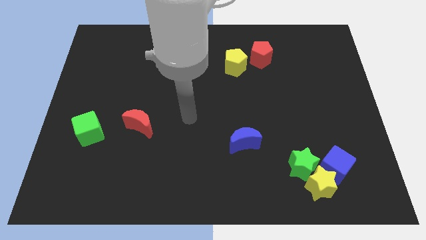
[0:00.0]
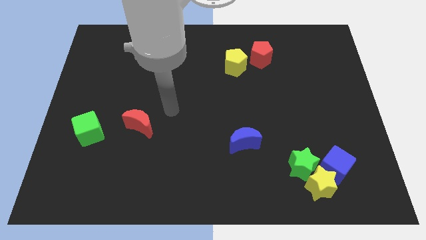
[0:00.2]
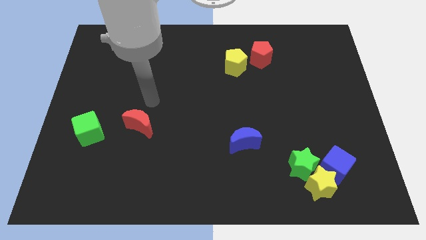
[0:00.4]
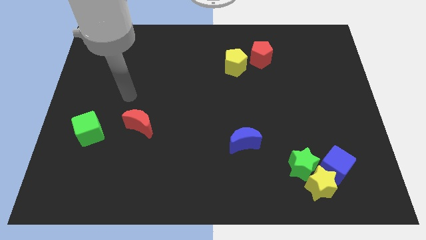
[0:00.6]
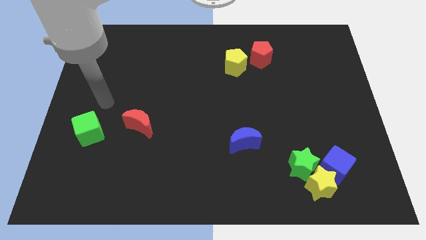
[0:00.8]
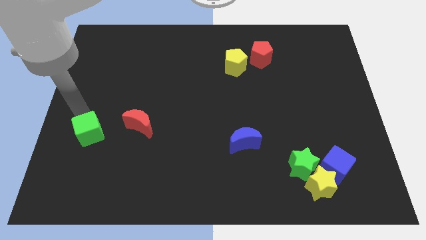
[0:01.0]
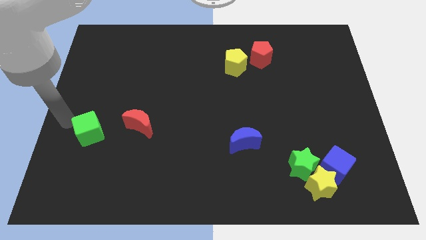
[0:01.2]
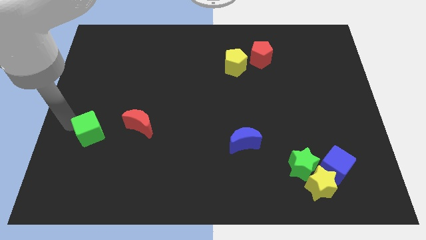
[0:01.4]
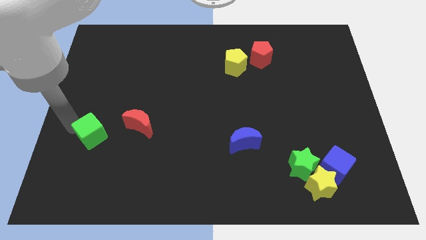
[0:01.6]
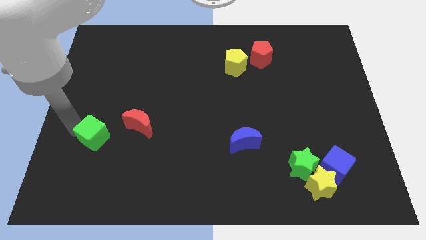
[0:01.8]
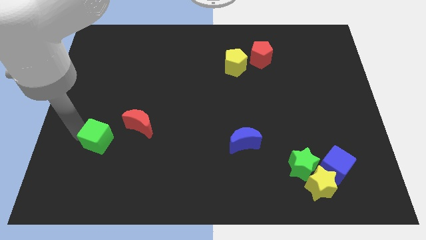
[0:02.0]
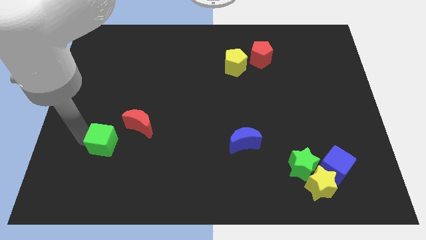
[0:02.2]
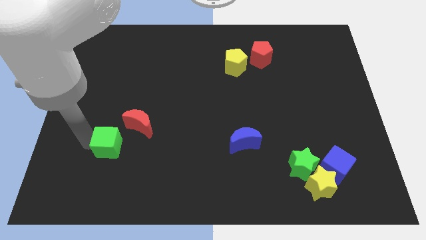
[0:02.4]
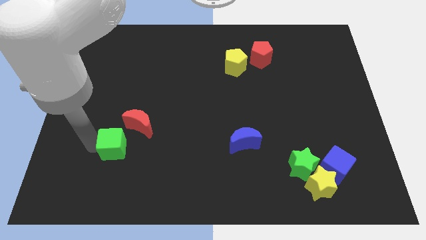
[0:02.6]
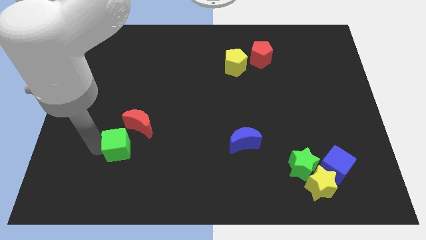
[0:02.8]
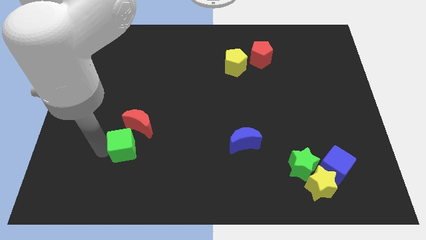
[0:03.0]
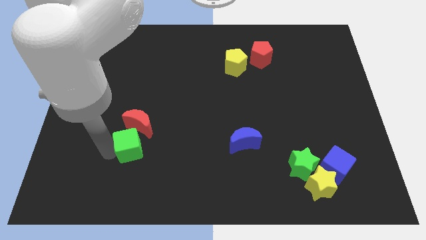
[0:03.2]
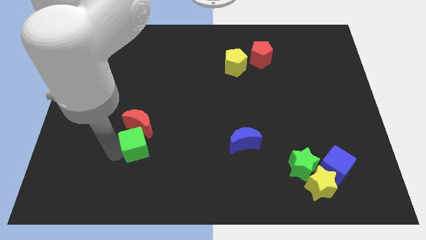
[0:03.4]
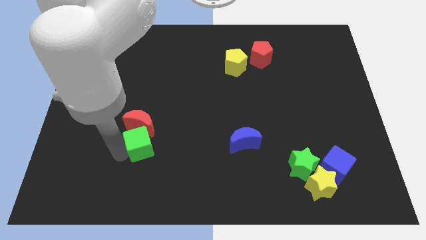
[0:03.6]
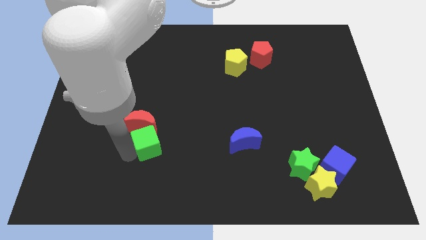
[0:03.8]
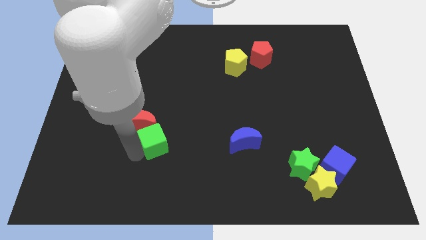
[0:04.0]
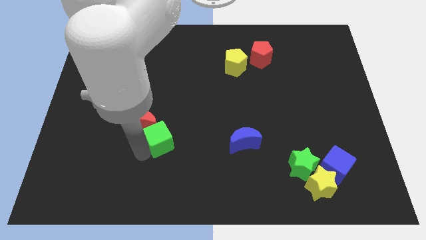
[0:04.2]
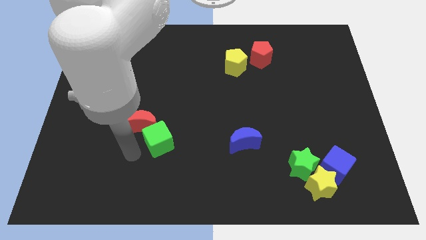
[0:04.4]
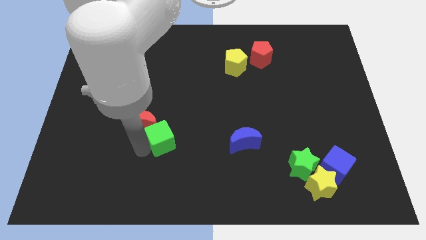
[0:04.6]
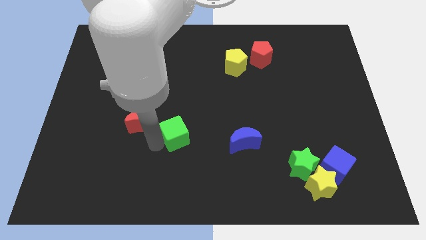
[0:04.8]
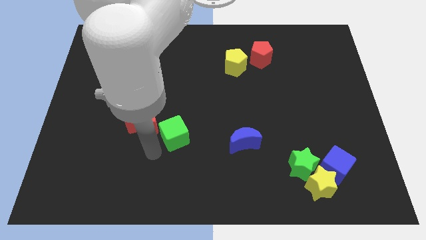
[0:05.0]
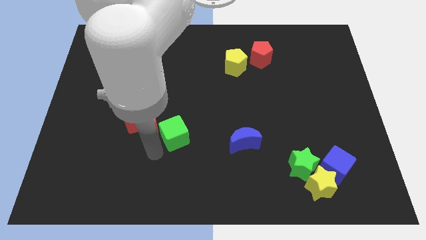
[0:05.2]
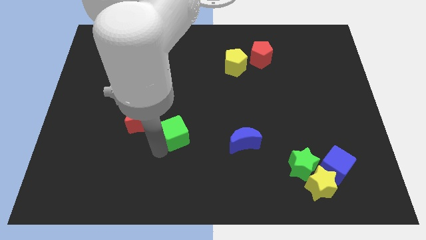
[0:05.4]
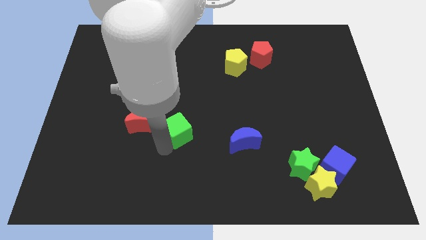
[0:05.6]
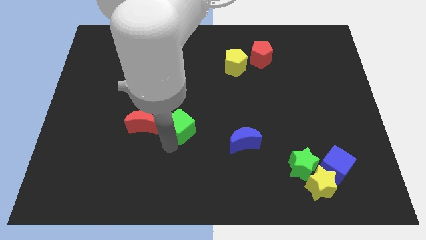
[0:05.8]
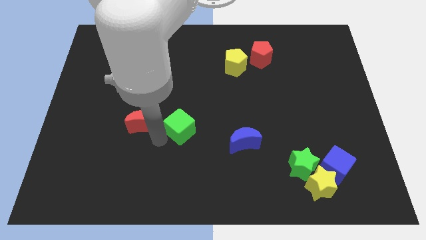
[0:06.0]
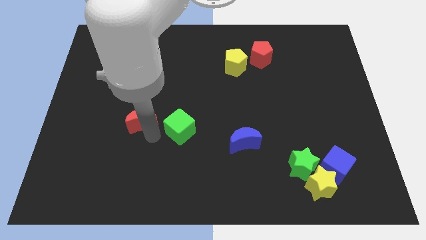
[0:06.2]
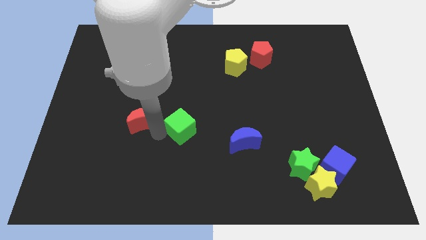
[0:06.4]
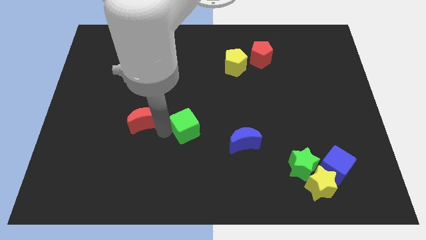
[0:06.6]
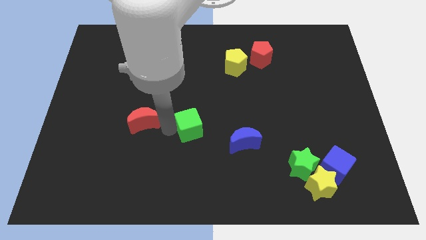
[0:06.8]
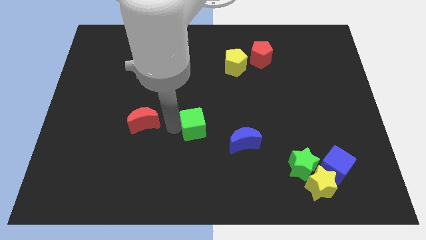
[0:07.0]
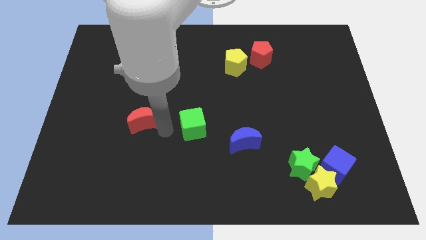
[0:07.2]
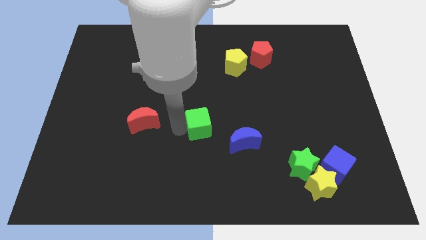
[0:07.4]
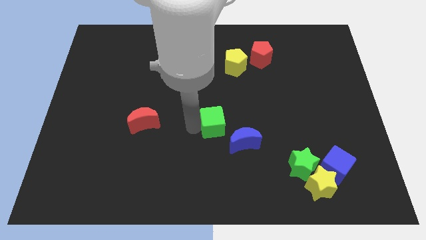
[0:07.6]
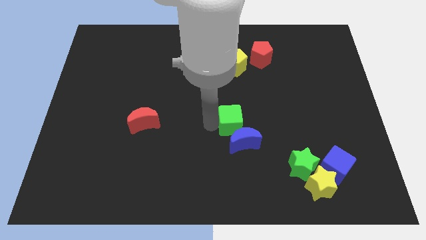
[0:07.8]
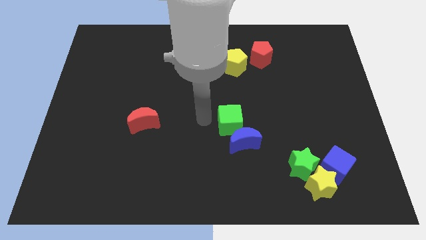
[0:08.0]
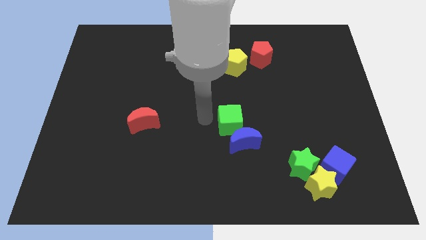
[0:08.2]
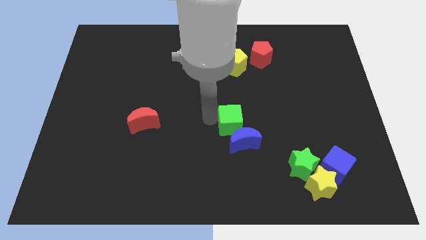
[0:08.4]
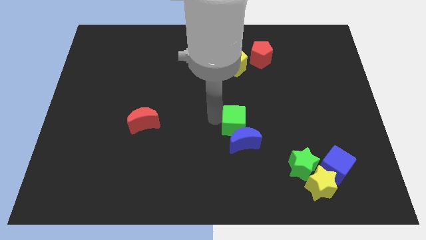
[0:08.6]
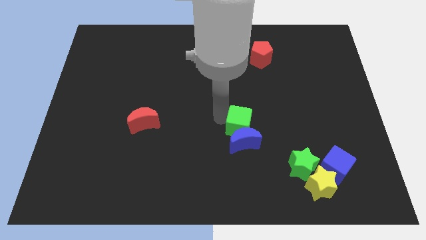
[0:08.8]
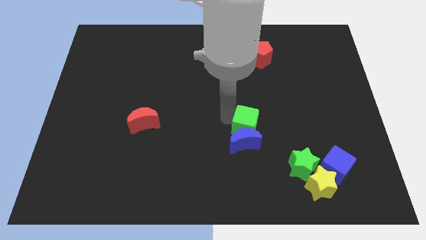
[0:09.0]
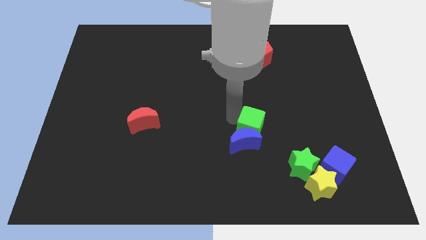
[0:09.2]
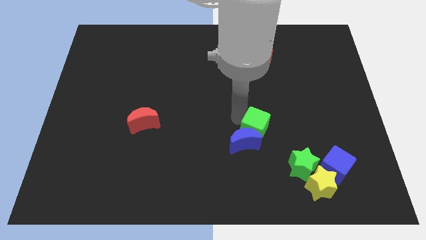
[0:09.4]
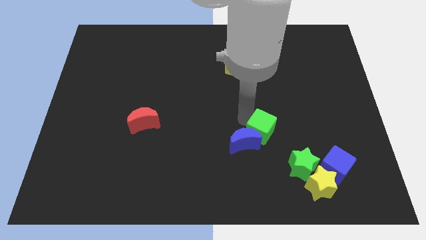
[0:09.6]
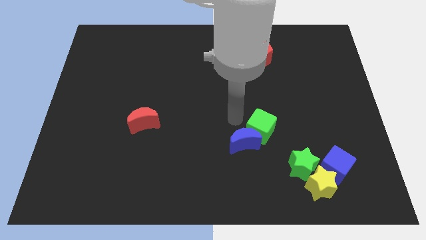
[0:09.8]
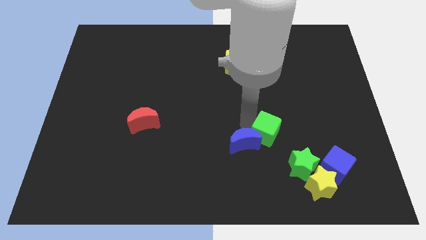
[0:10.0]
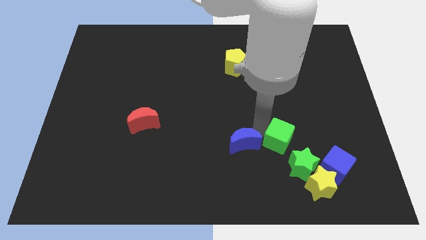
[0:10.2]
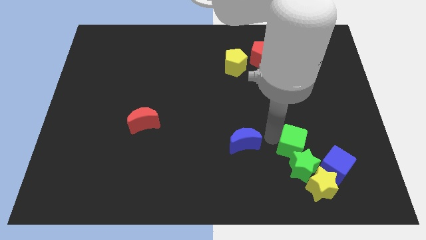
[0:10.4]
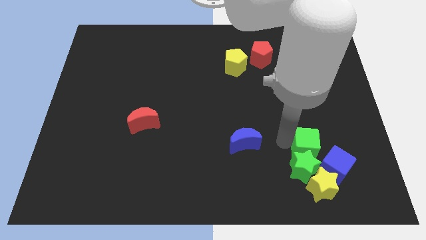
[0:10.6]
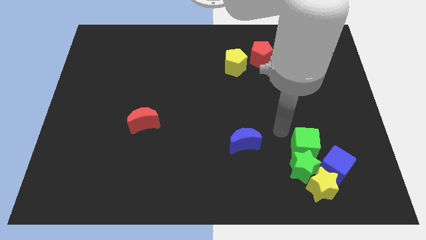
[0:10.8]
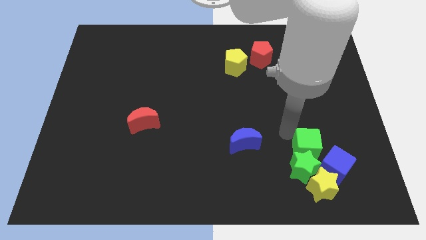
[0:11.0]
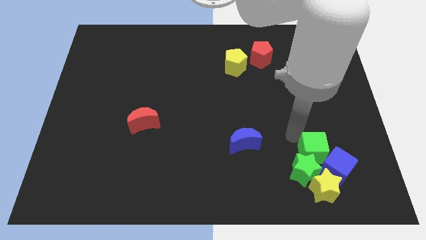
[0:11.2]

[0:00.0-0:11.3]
push the green cube towards the blue cube

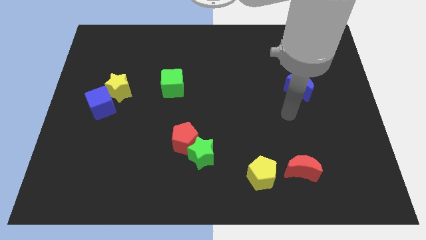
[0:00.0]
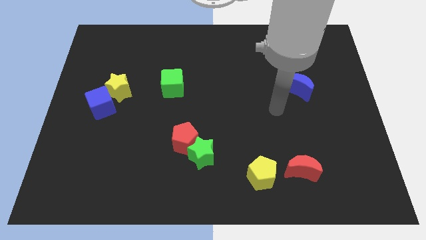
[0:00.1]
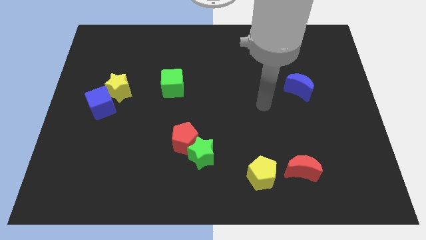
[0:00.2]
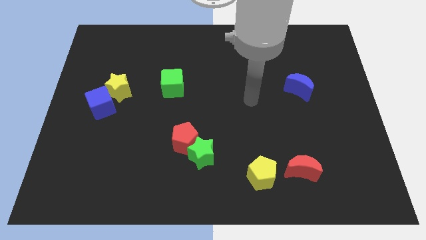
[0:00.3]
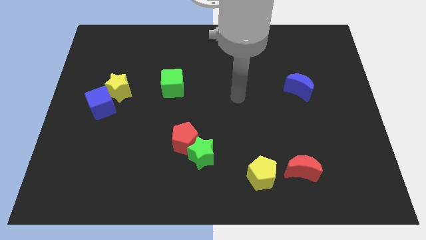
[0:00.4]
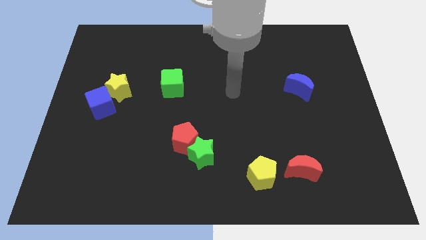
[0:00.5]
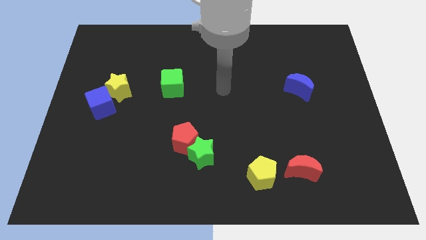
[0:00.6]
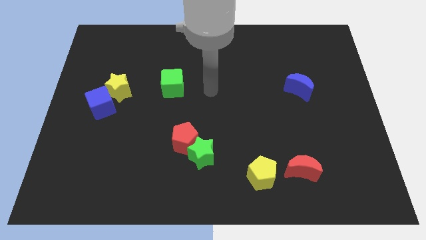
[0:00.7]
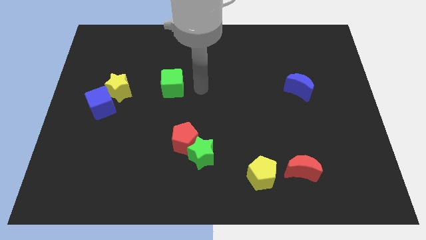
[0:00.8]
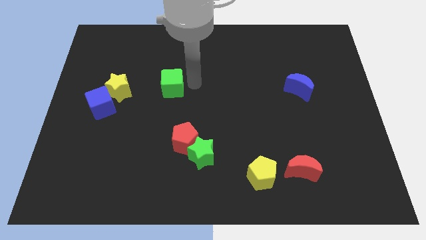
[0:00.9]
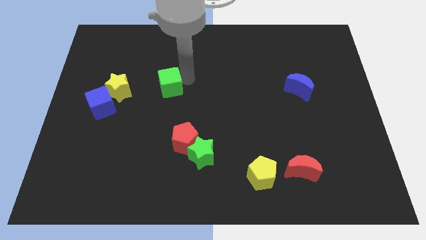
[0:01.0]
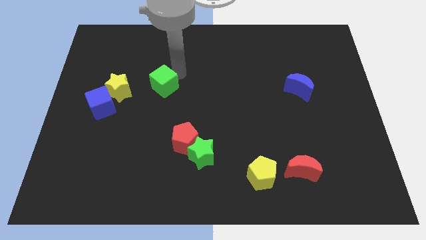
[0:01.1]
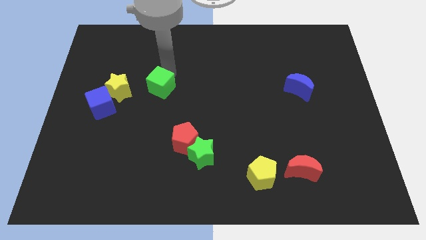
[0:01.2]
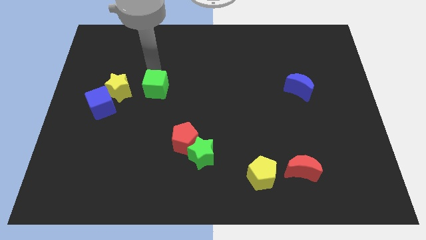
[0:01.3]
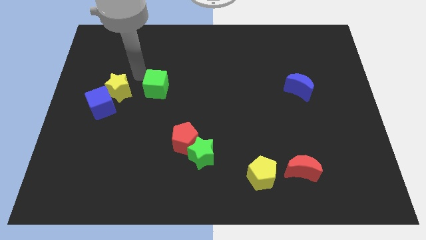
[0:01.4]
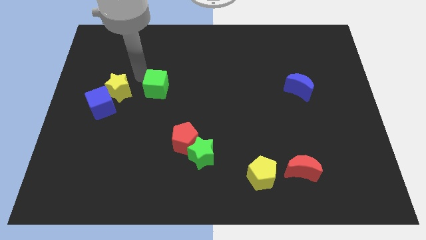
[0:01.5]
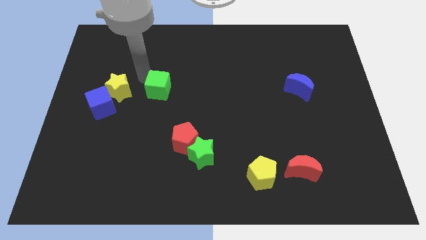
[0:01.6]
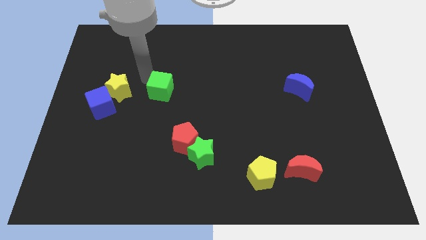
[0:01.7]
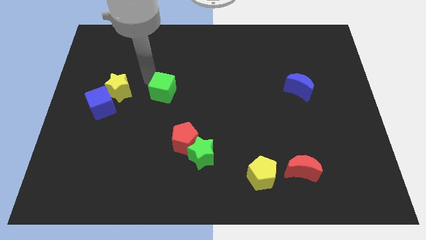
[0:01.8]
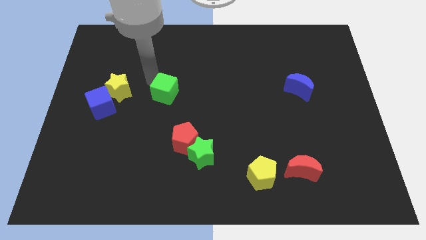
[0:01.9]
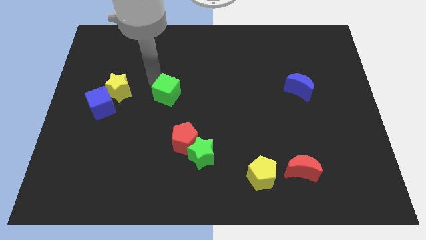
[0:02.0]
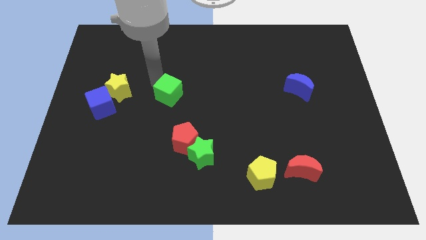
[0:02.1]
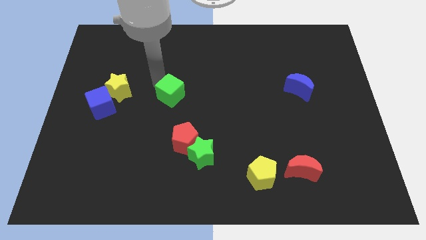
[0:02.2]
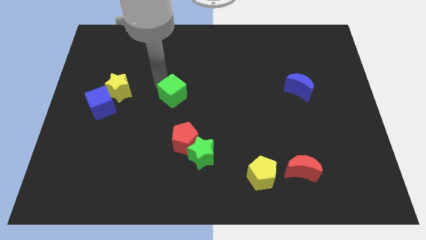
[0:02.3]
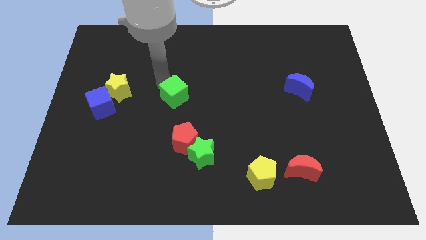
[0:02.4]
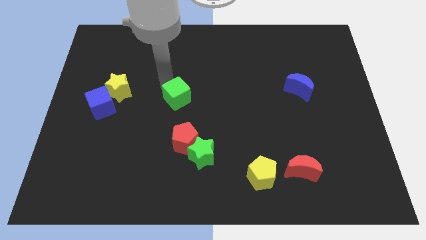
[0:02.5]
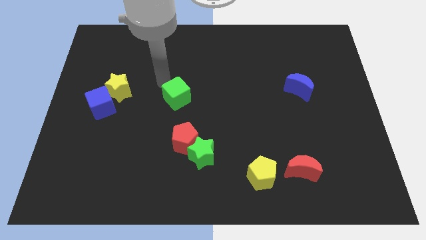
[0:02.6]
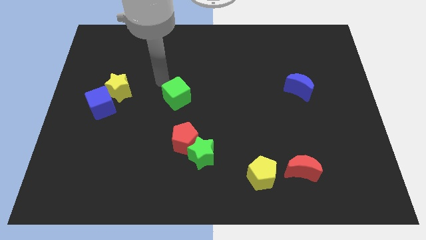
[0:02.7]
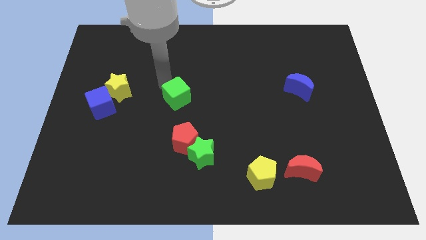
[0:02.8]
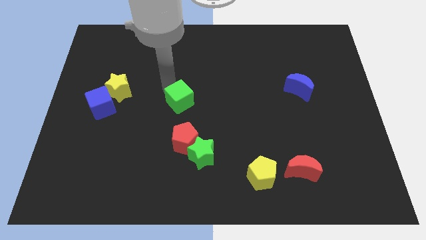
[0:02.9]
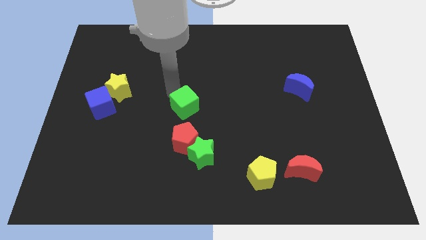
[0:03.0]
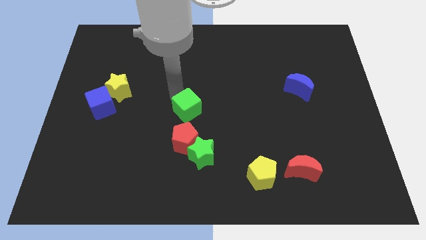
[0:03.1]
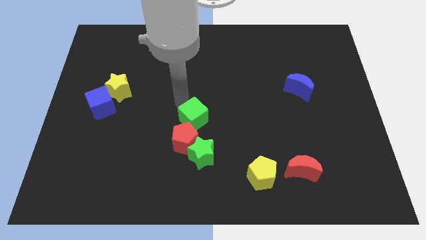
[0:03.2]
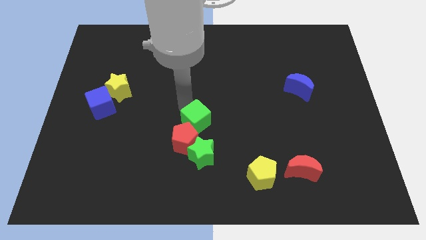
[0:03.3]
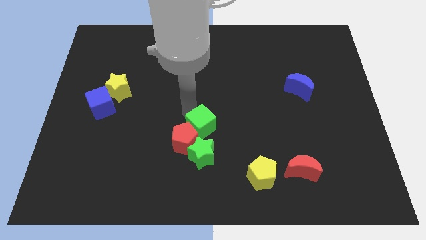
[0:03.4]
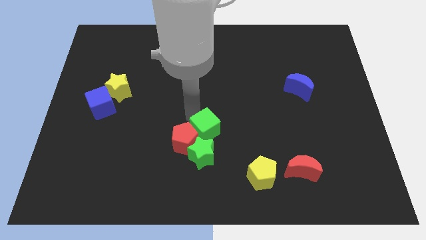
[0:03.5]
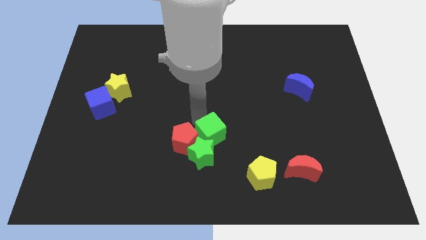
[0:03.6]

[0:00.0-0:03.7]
move the green cube towards the green star
